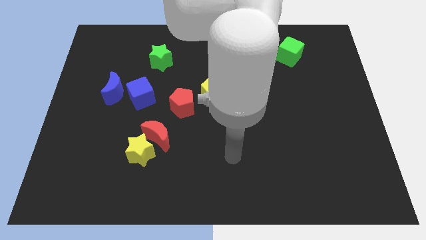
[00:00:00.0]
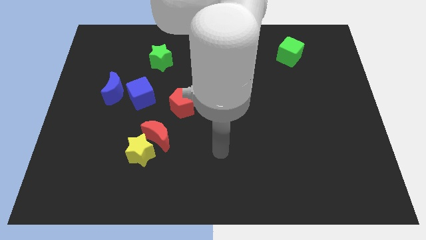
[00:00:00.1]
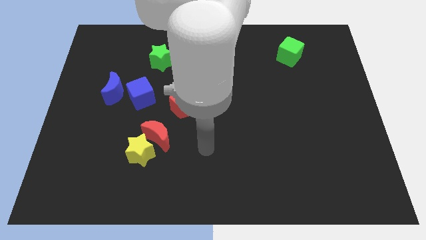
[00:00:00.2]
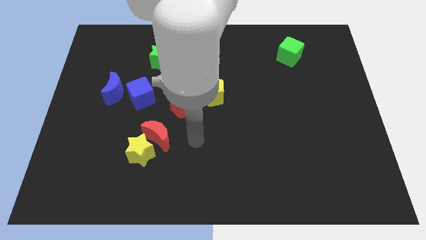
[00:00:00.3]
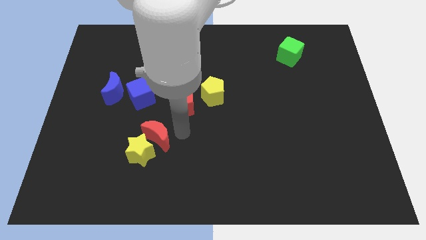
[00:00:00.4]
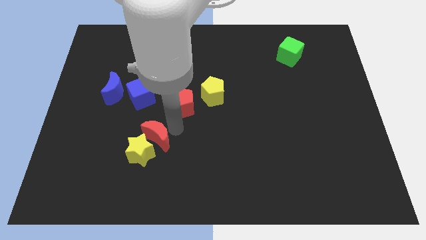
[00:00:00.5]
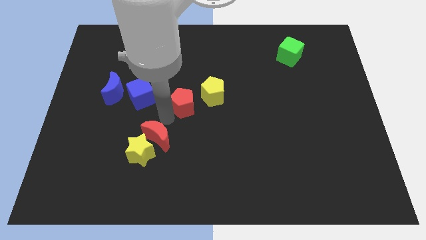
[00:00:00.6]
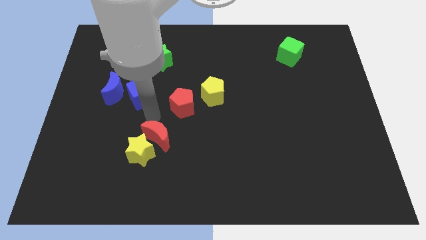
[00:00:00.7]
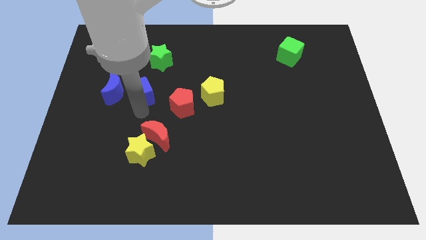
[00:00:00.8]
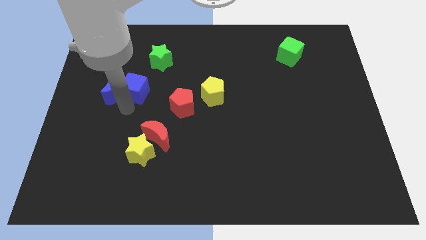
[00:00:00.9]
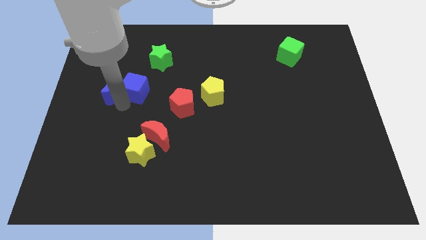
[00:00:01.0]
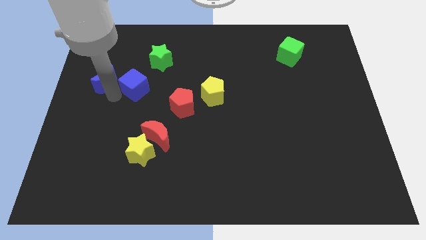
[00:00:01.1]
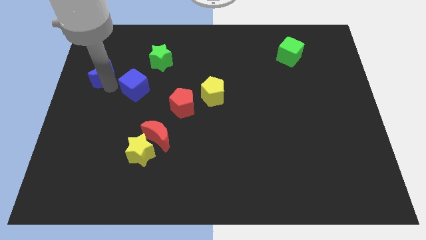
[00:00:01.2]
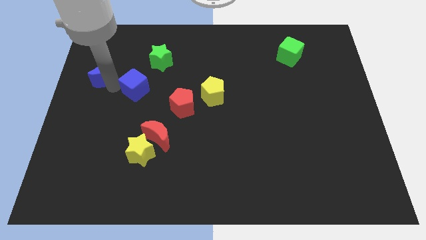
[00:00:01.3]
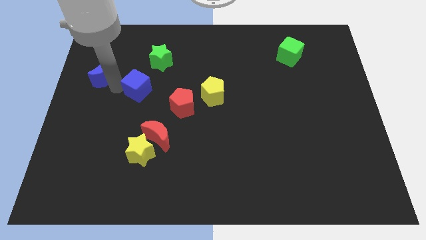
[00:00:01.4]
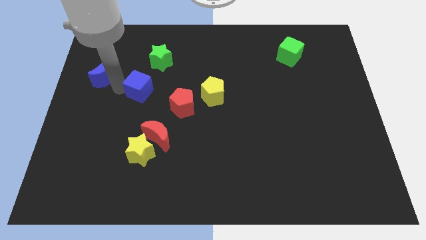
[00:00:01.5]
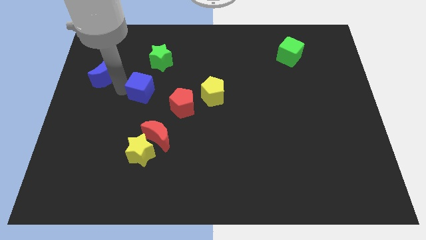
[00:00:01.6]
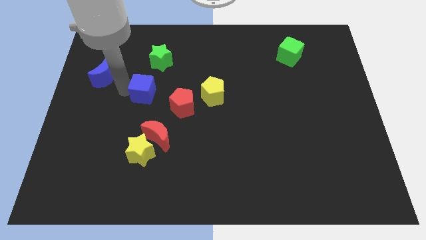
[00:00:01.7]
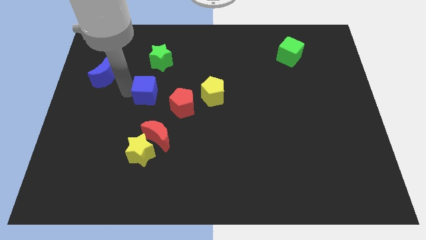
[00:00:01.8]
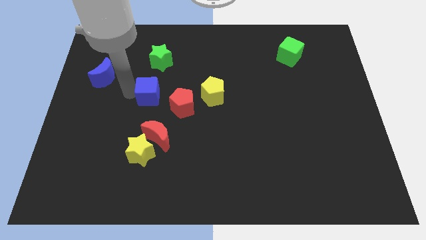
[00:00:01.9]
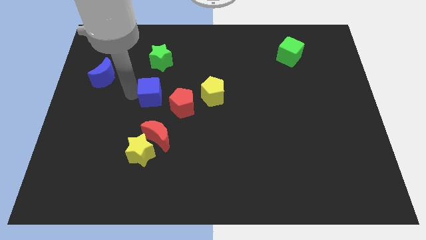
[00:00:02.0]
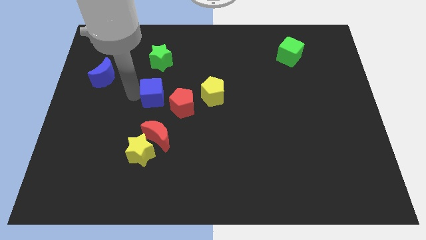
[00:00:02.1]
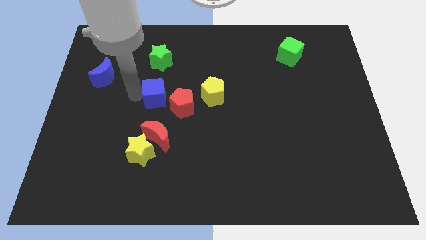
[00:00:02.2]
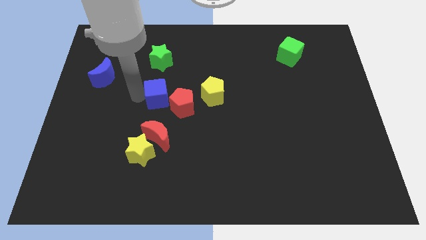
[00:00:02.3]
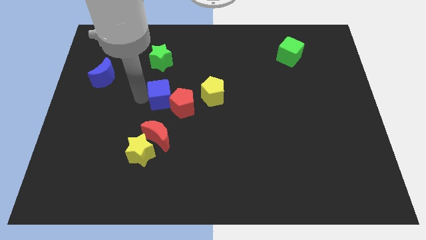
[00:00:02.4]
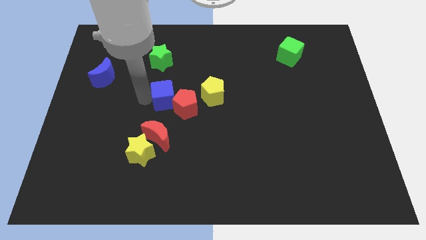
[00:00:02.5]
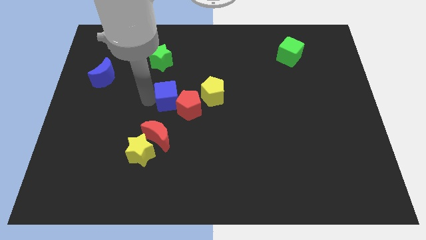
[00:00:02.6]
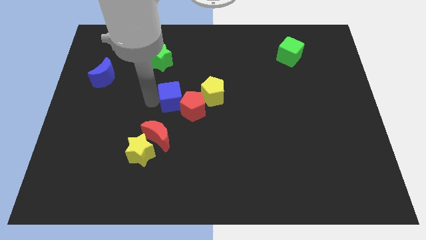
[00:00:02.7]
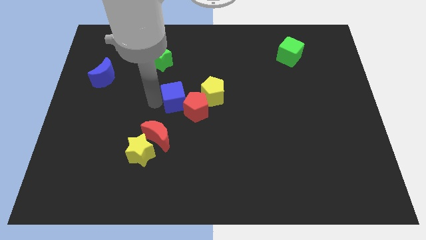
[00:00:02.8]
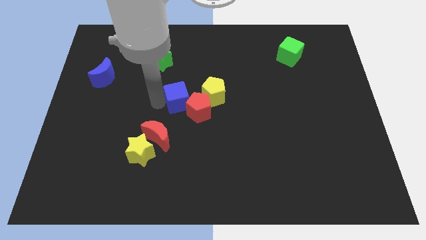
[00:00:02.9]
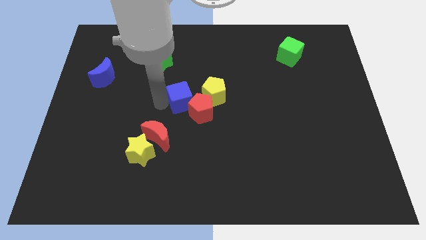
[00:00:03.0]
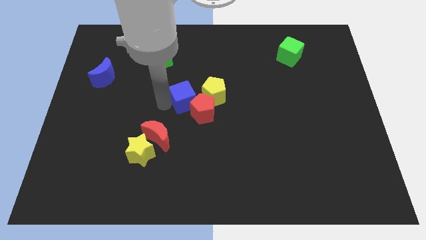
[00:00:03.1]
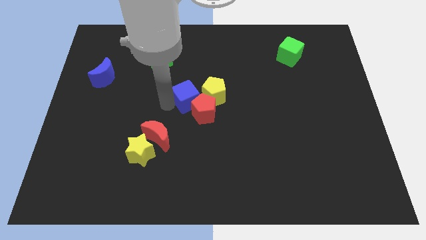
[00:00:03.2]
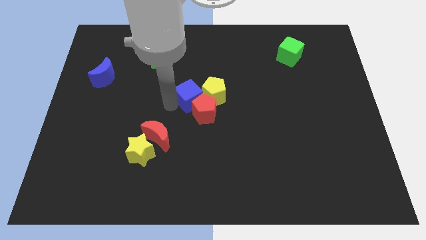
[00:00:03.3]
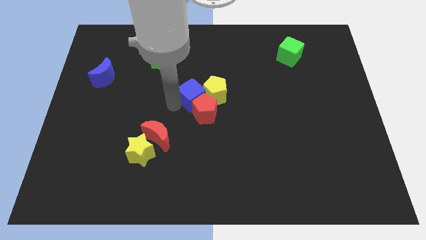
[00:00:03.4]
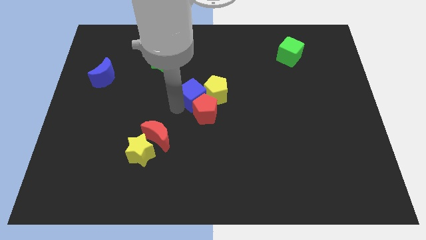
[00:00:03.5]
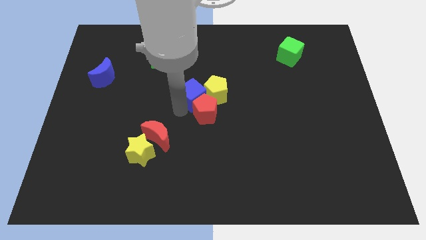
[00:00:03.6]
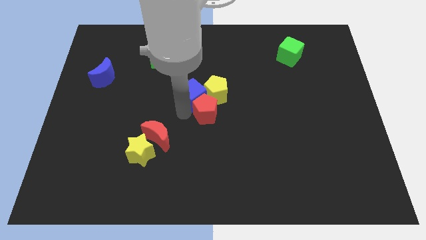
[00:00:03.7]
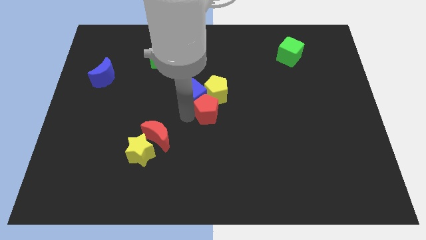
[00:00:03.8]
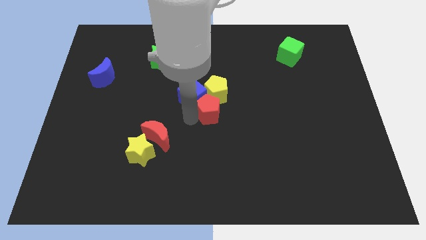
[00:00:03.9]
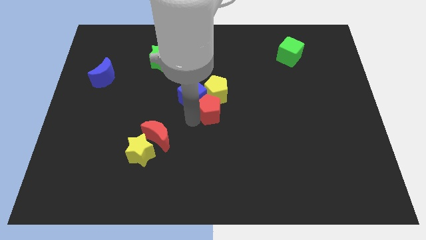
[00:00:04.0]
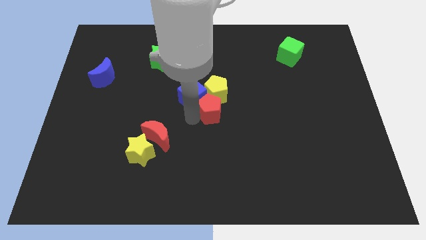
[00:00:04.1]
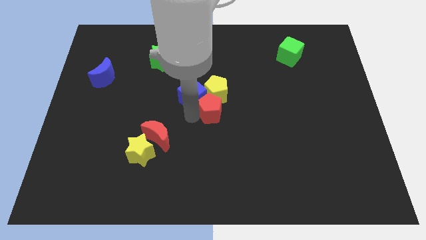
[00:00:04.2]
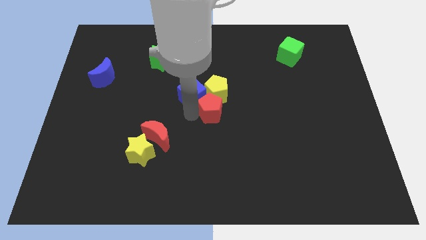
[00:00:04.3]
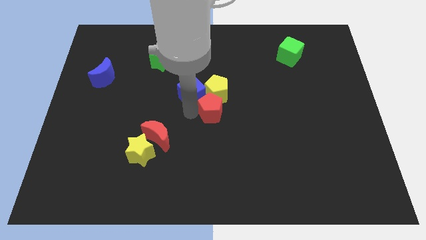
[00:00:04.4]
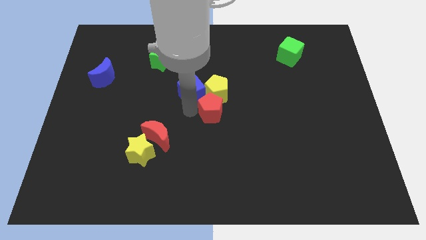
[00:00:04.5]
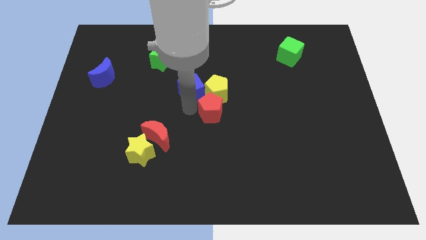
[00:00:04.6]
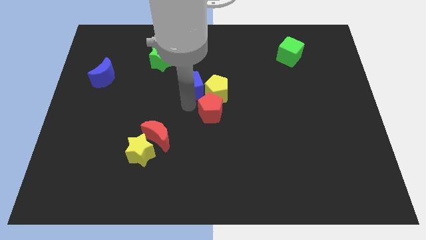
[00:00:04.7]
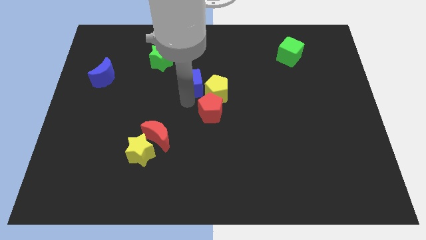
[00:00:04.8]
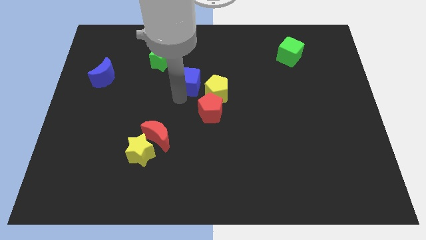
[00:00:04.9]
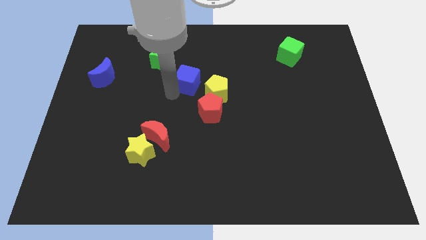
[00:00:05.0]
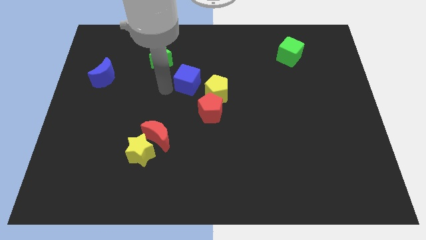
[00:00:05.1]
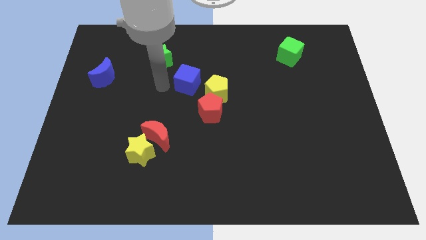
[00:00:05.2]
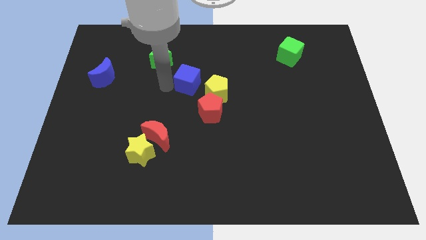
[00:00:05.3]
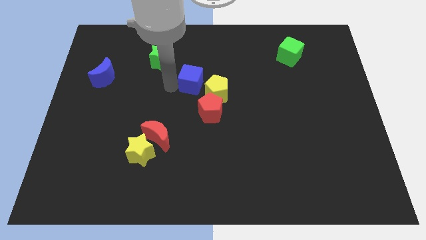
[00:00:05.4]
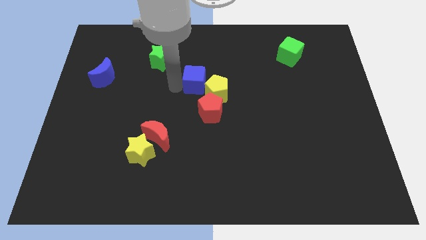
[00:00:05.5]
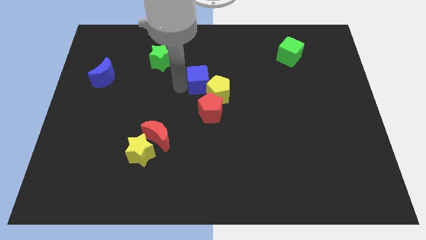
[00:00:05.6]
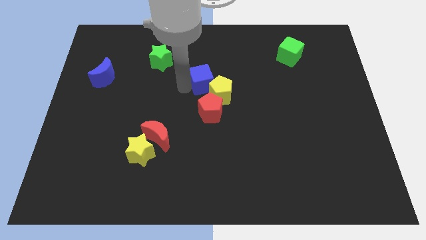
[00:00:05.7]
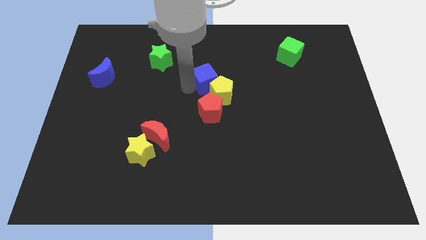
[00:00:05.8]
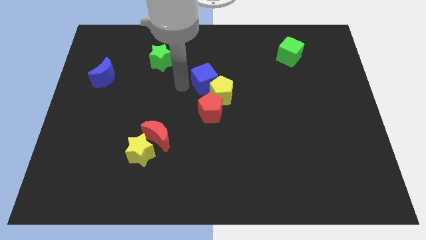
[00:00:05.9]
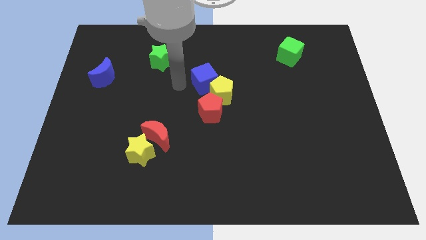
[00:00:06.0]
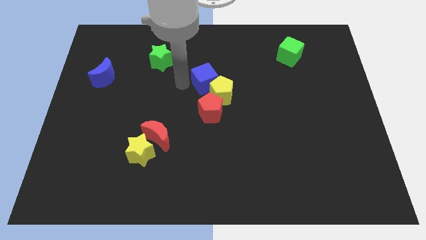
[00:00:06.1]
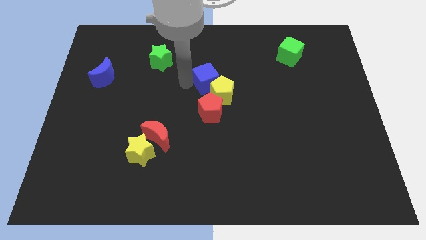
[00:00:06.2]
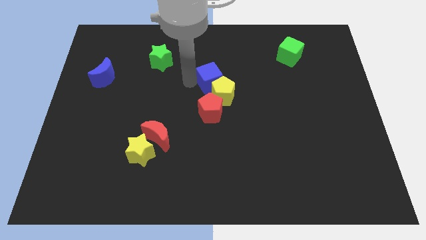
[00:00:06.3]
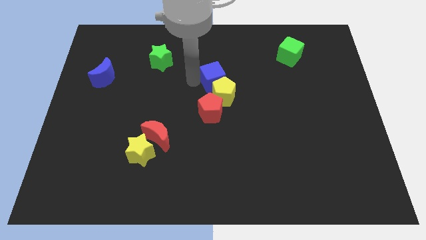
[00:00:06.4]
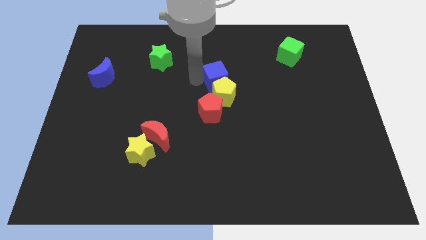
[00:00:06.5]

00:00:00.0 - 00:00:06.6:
move the blue cube to the top right side of the yellow pentagon
